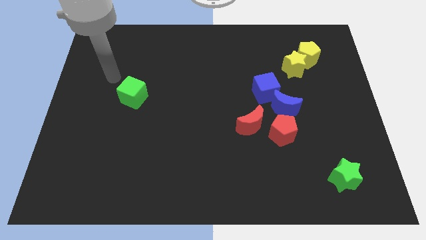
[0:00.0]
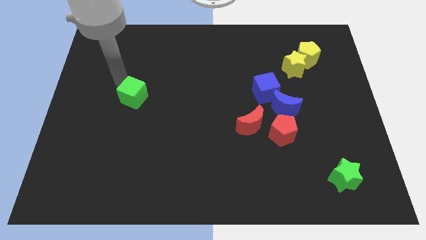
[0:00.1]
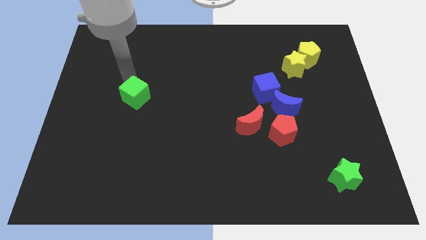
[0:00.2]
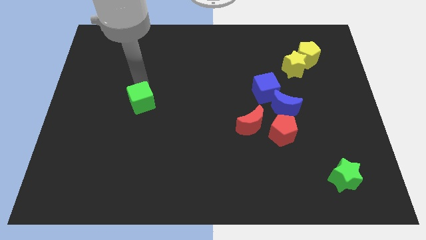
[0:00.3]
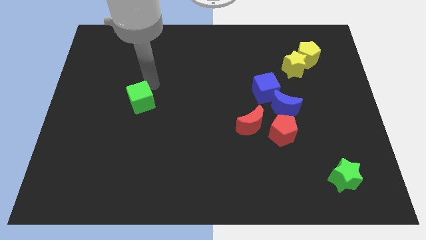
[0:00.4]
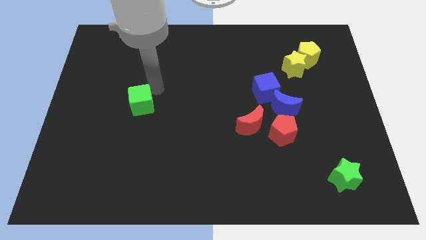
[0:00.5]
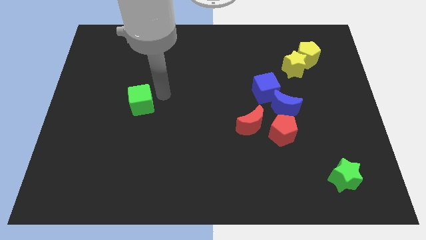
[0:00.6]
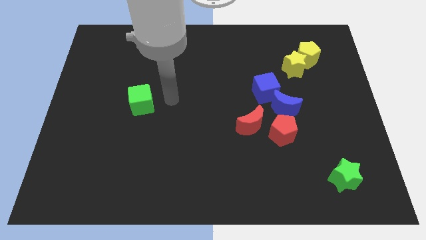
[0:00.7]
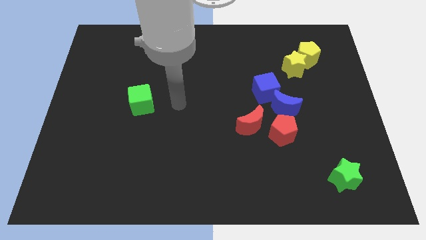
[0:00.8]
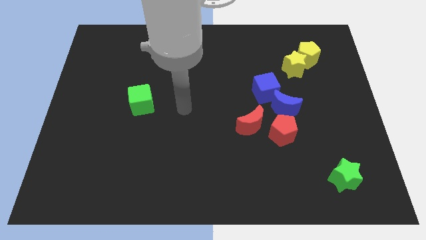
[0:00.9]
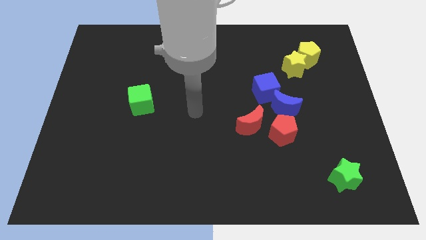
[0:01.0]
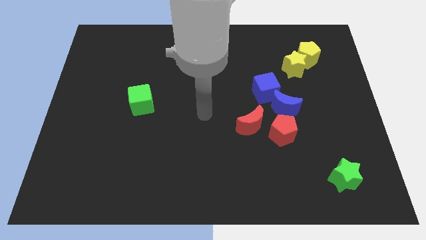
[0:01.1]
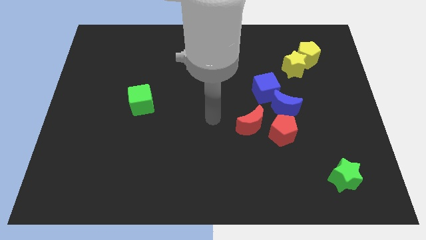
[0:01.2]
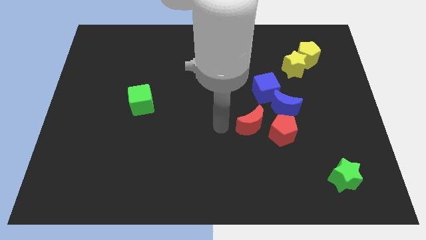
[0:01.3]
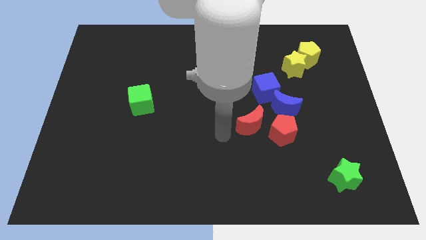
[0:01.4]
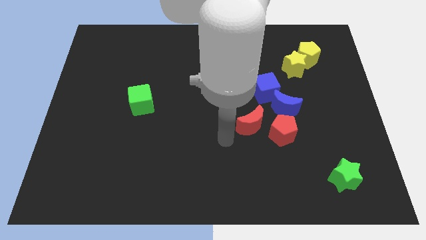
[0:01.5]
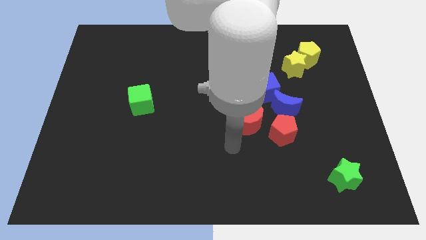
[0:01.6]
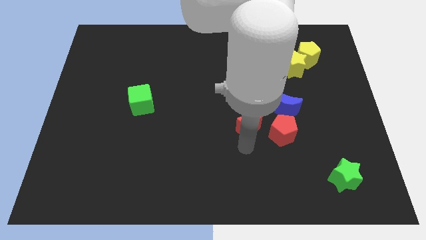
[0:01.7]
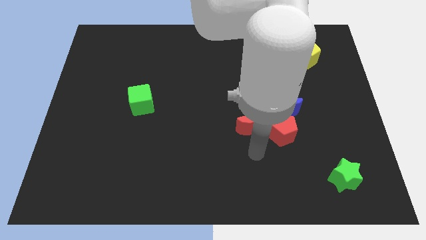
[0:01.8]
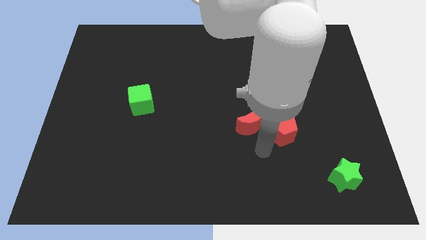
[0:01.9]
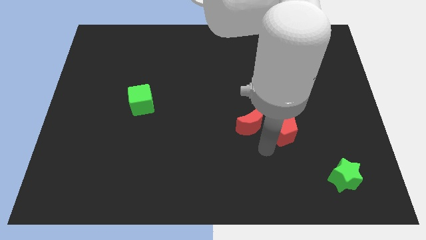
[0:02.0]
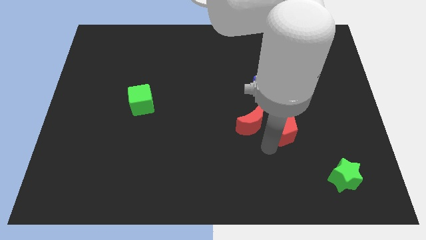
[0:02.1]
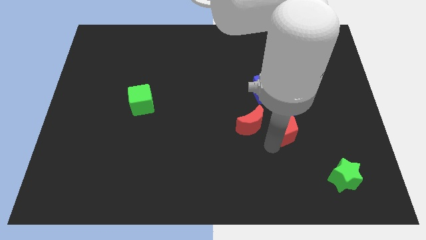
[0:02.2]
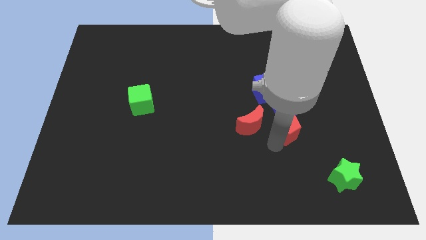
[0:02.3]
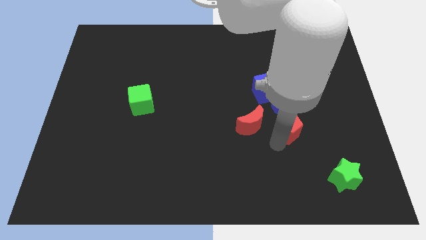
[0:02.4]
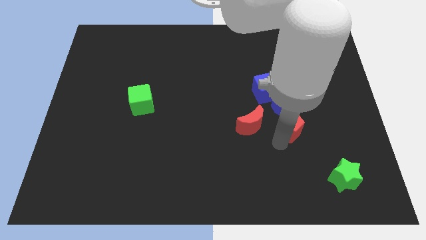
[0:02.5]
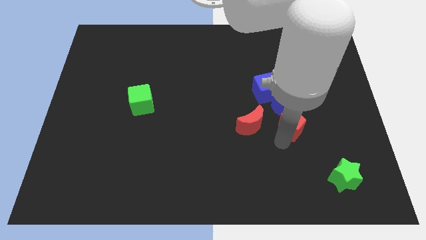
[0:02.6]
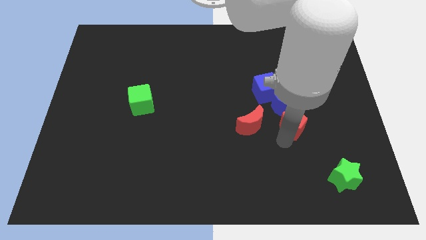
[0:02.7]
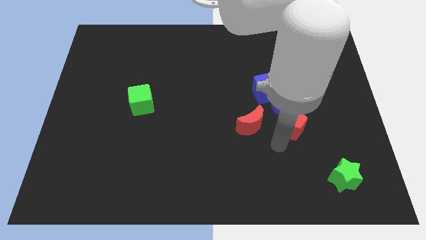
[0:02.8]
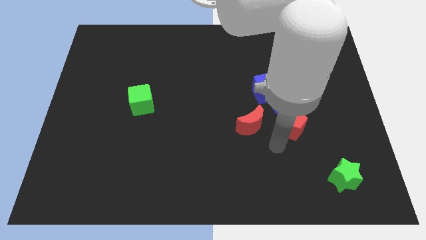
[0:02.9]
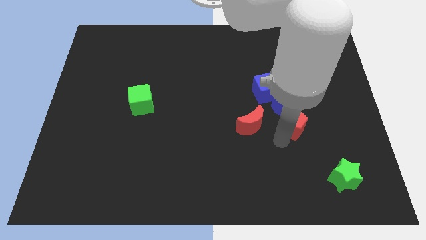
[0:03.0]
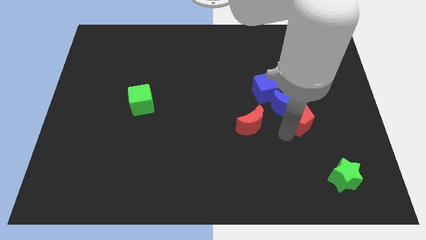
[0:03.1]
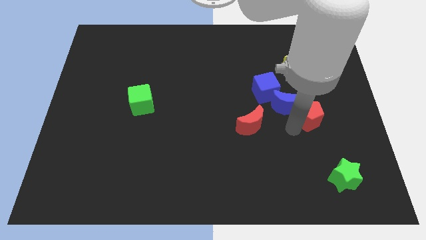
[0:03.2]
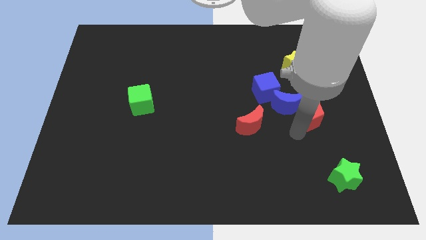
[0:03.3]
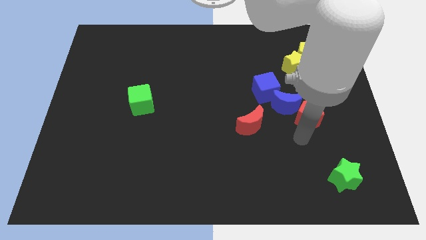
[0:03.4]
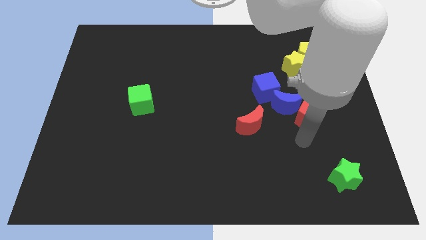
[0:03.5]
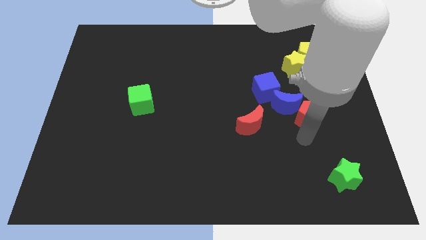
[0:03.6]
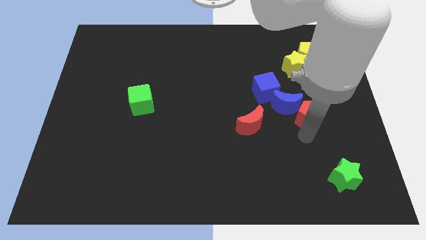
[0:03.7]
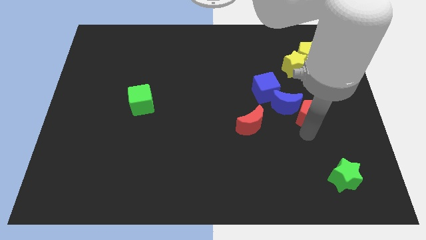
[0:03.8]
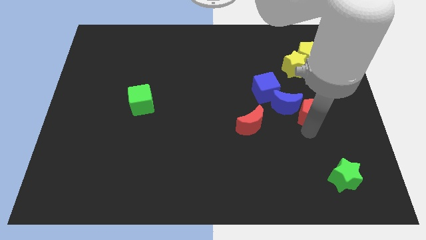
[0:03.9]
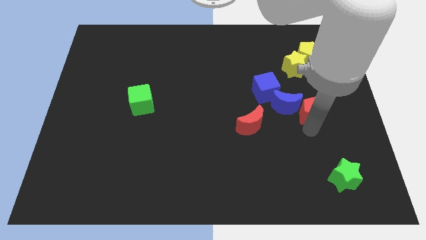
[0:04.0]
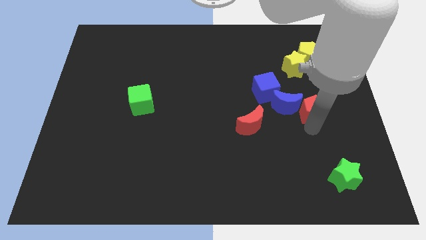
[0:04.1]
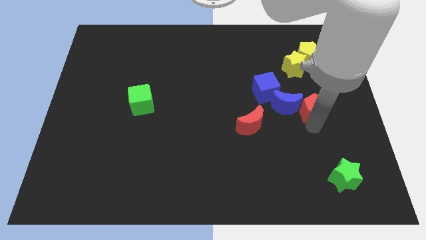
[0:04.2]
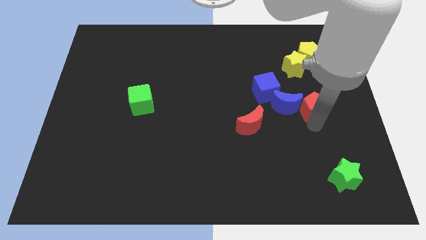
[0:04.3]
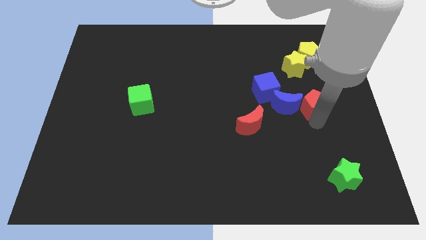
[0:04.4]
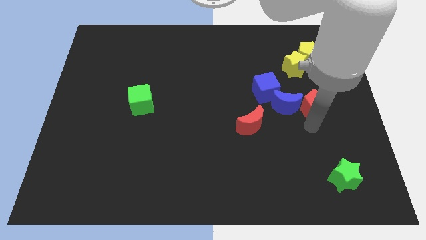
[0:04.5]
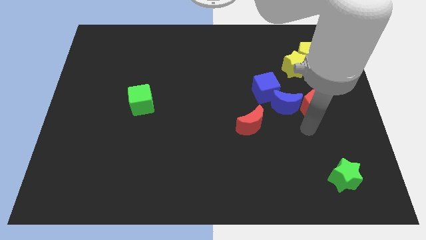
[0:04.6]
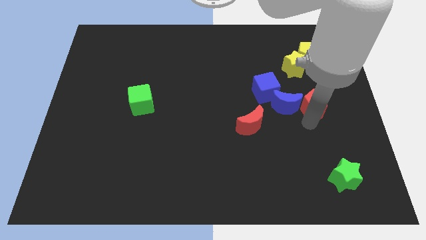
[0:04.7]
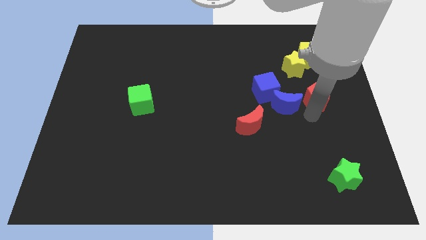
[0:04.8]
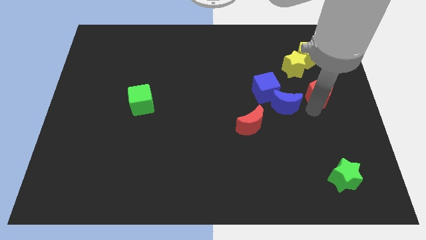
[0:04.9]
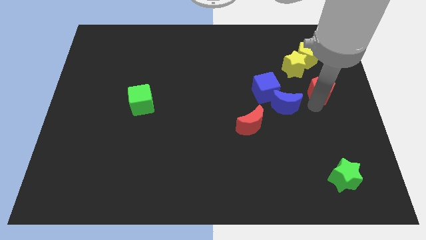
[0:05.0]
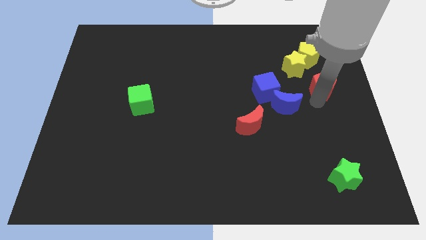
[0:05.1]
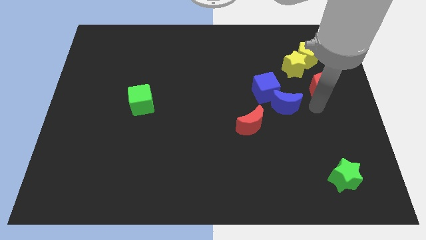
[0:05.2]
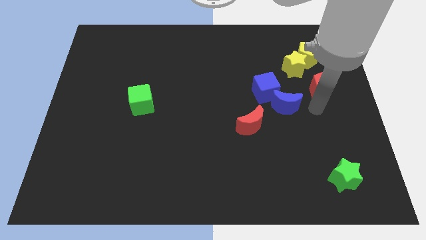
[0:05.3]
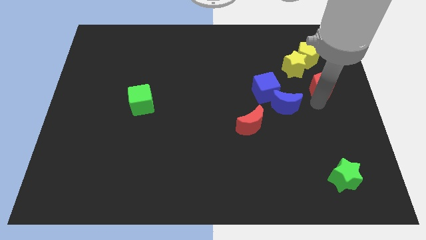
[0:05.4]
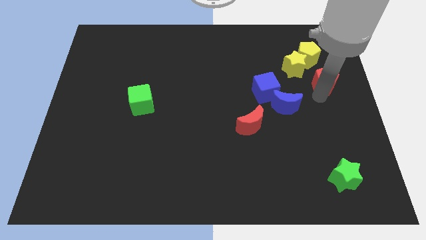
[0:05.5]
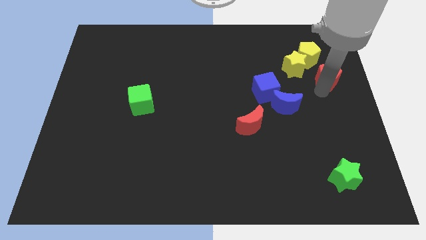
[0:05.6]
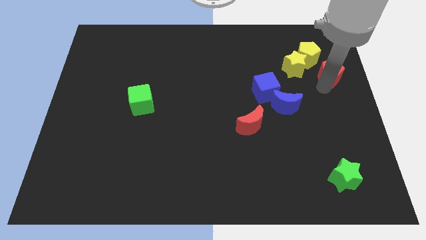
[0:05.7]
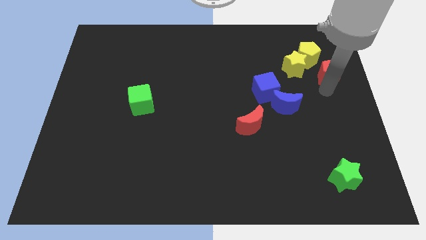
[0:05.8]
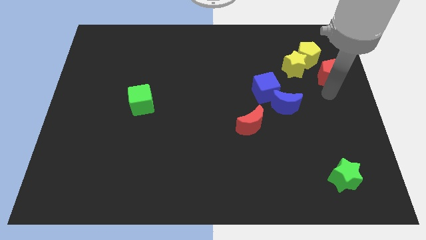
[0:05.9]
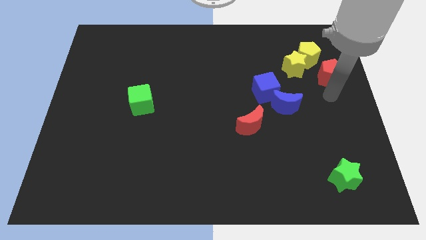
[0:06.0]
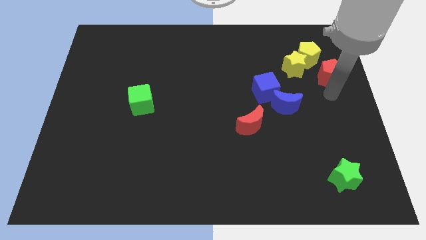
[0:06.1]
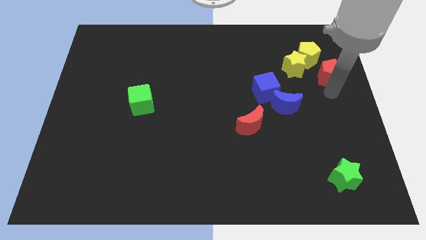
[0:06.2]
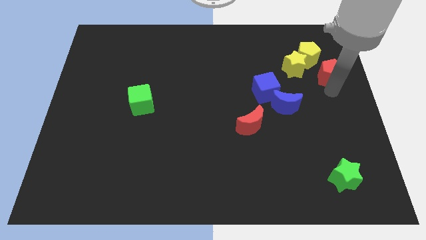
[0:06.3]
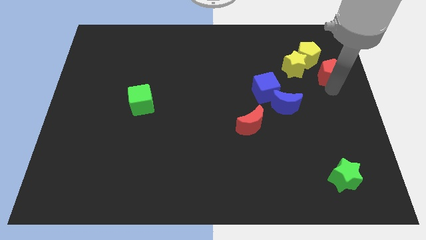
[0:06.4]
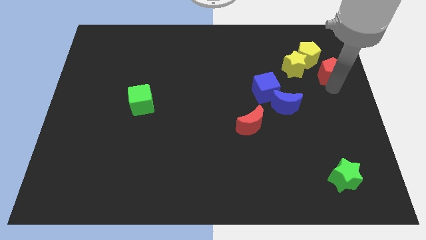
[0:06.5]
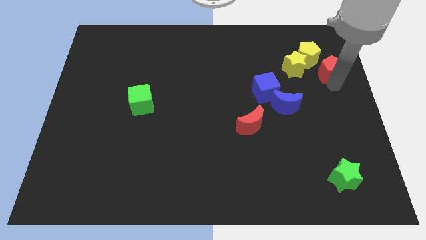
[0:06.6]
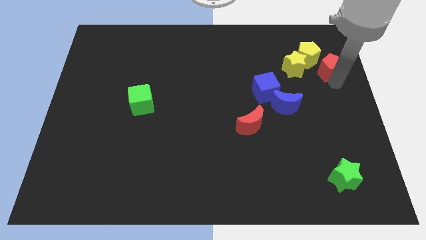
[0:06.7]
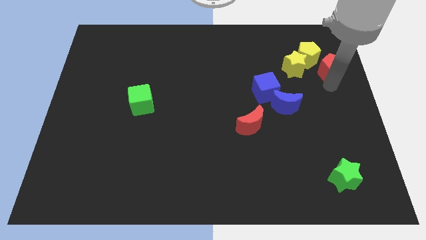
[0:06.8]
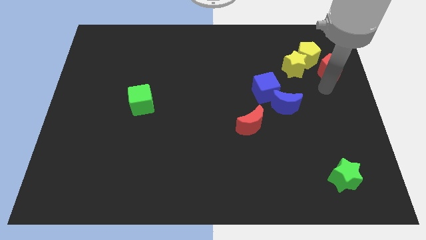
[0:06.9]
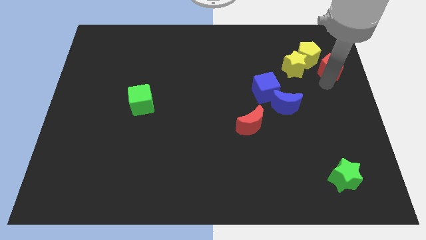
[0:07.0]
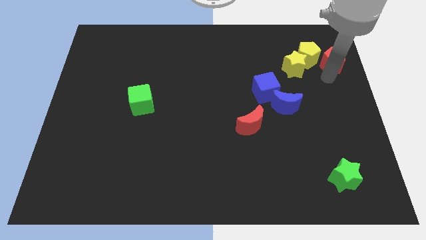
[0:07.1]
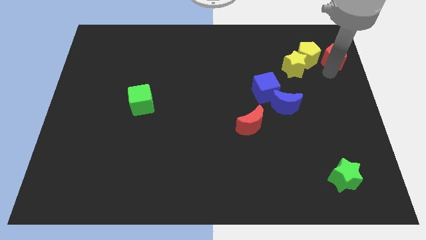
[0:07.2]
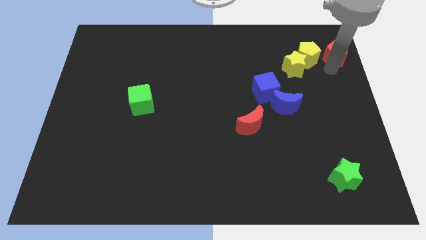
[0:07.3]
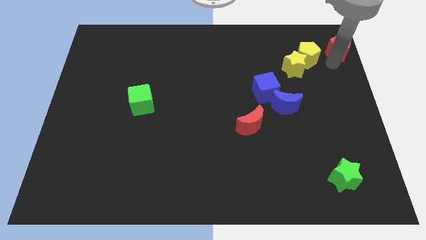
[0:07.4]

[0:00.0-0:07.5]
move the red pentagon to the top right
